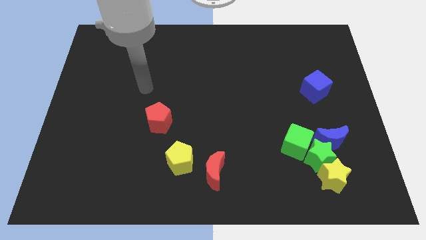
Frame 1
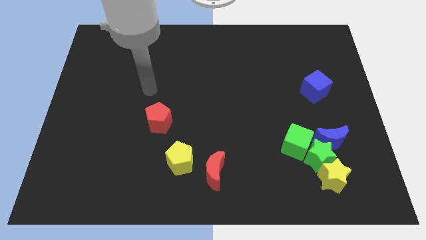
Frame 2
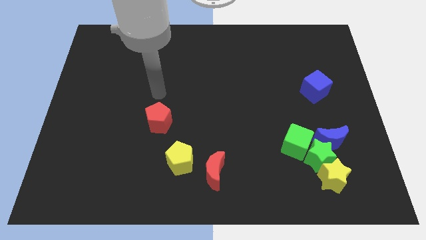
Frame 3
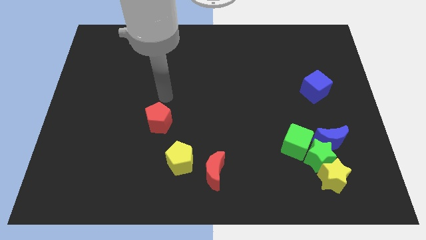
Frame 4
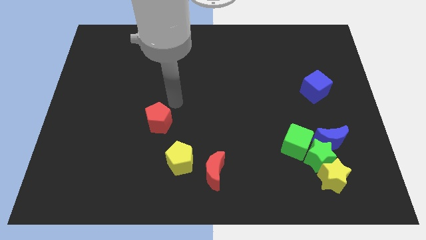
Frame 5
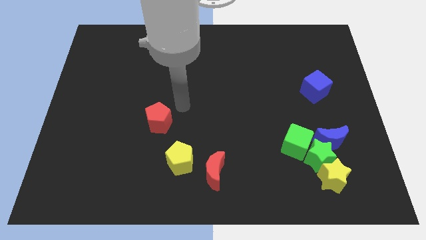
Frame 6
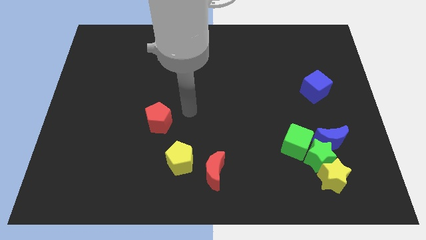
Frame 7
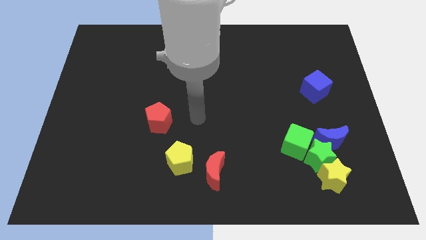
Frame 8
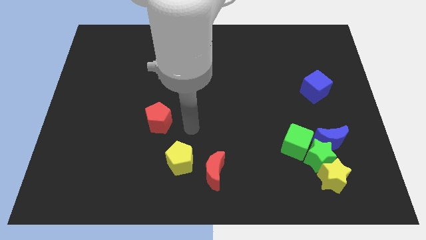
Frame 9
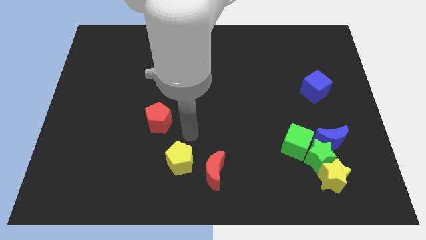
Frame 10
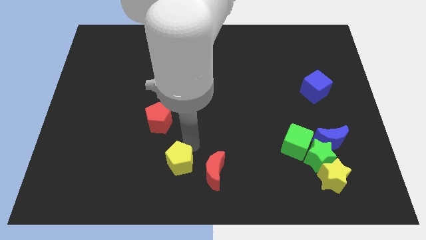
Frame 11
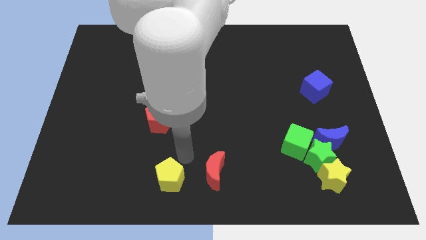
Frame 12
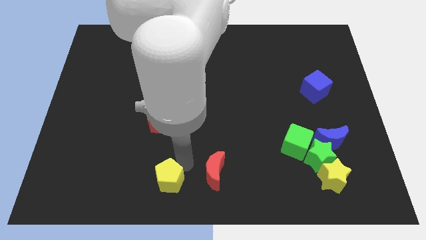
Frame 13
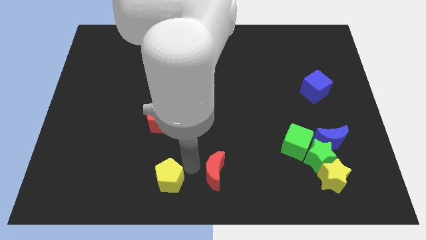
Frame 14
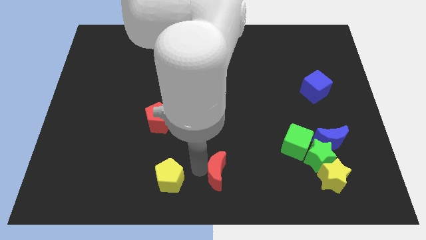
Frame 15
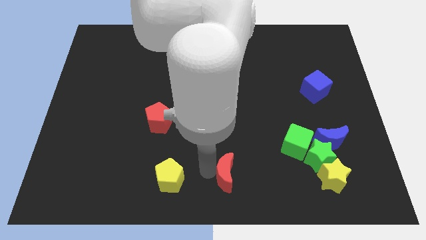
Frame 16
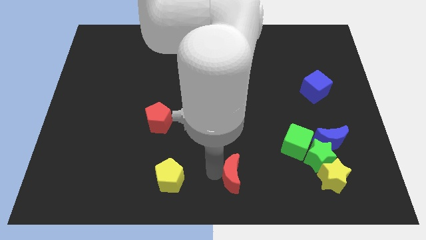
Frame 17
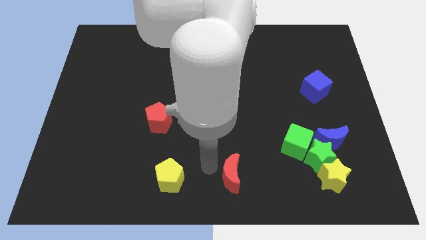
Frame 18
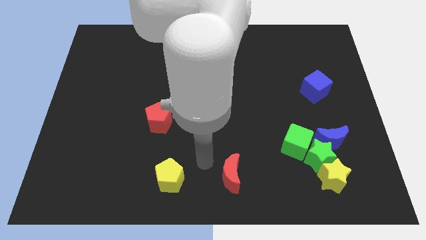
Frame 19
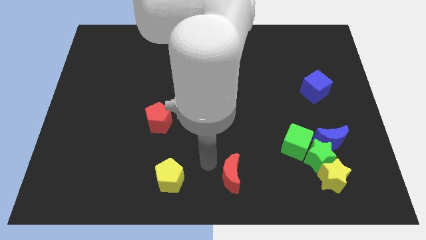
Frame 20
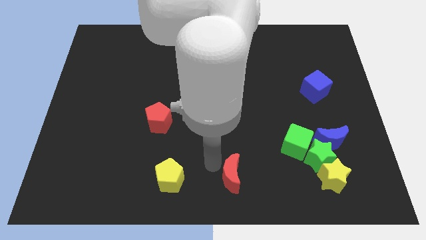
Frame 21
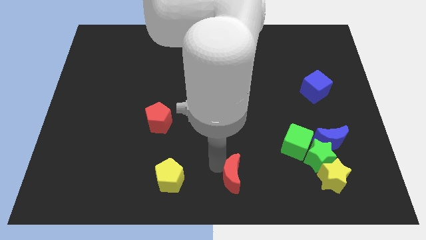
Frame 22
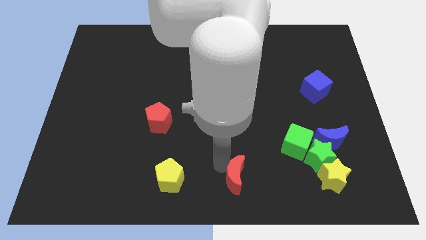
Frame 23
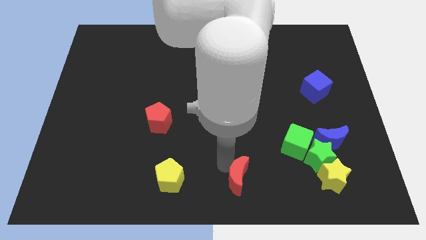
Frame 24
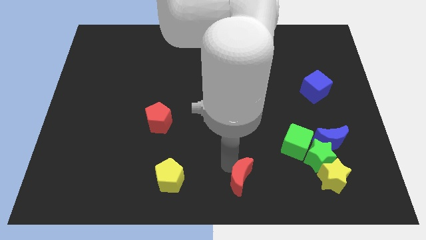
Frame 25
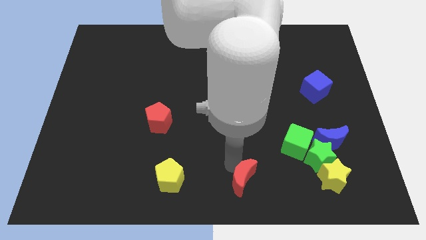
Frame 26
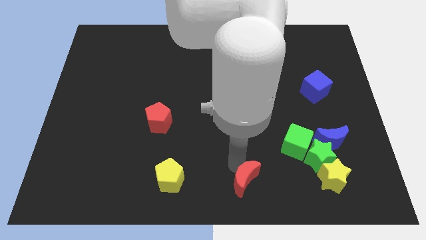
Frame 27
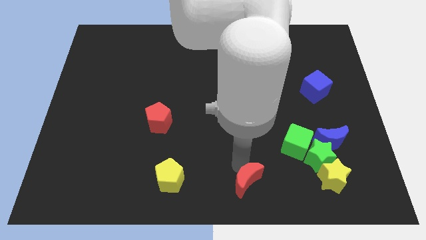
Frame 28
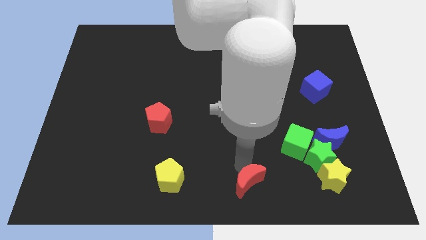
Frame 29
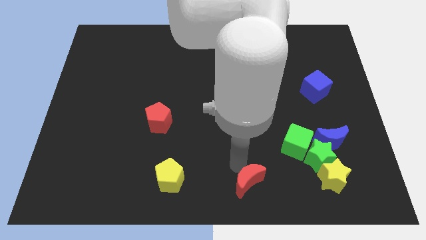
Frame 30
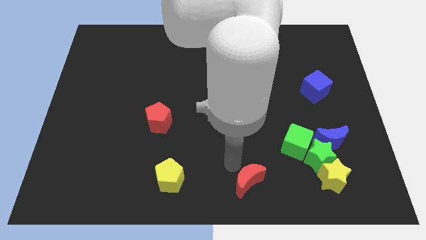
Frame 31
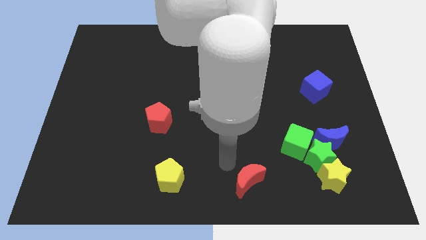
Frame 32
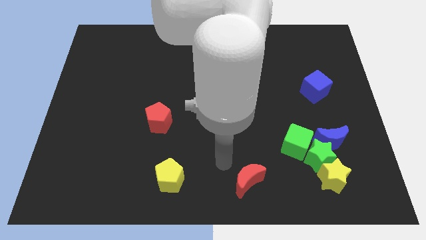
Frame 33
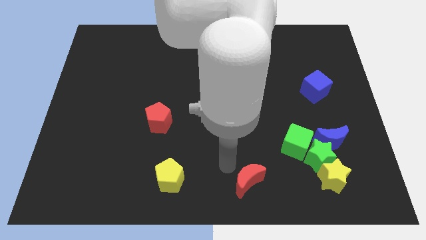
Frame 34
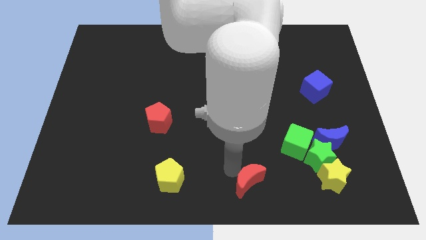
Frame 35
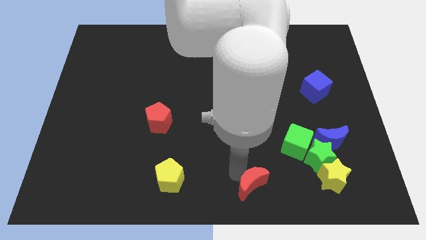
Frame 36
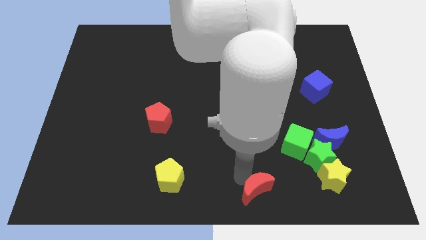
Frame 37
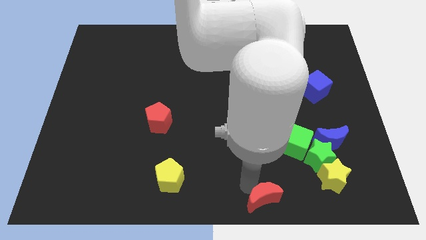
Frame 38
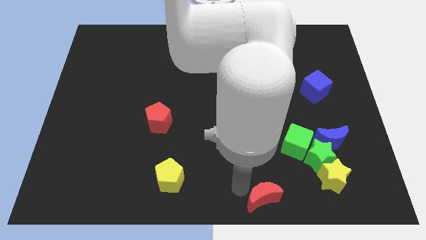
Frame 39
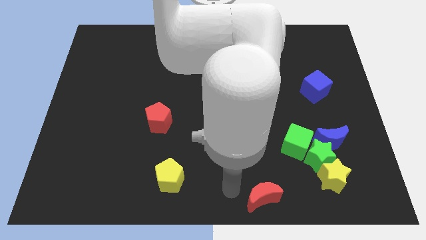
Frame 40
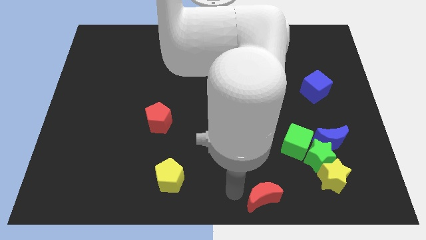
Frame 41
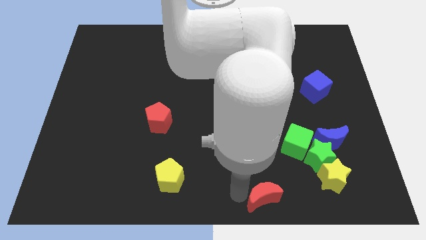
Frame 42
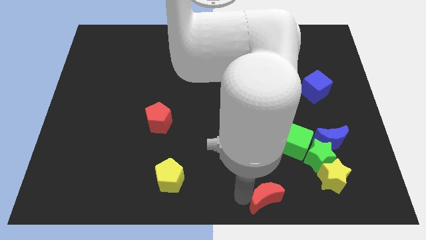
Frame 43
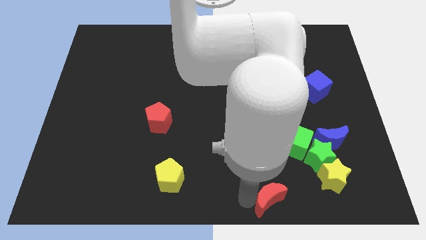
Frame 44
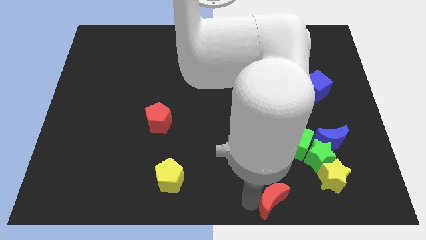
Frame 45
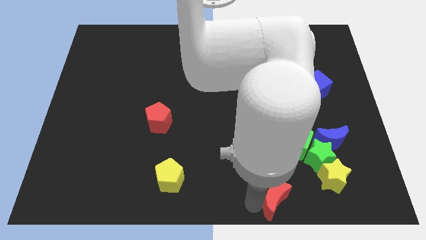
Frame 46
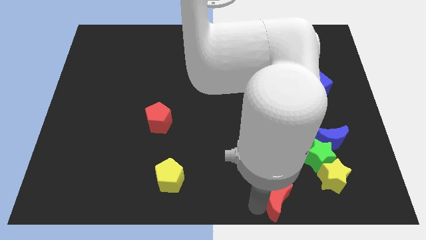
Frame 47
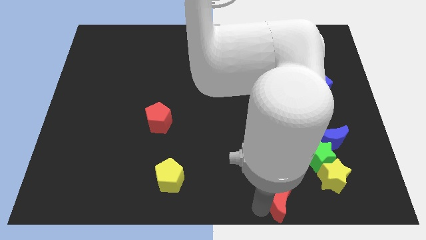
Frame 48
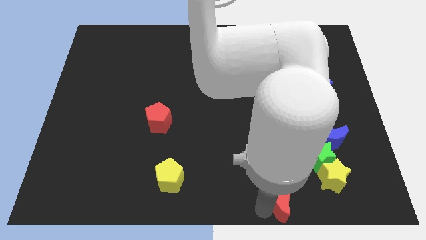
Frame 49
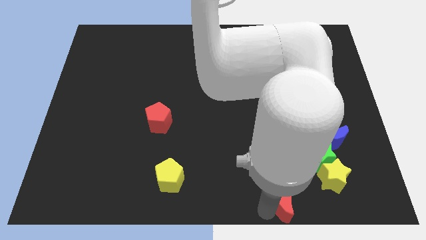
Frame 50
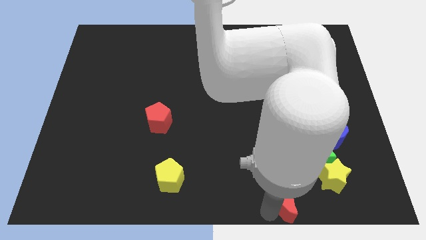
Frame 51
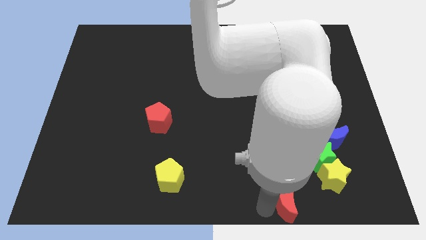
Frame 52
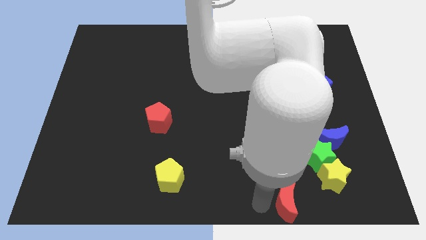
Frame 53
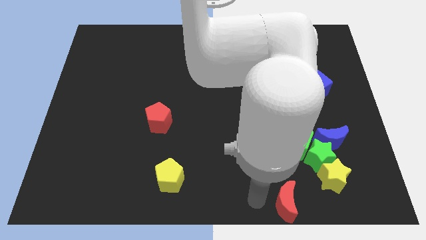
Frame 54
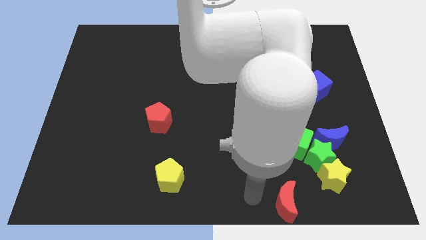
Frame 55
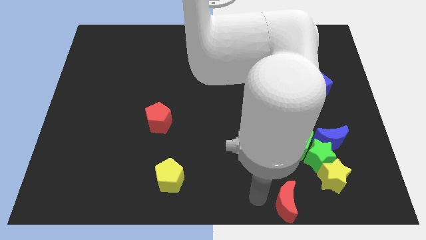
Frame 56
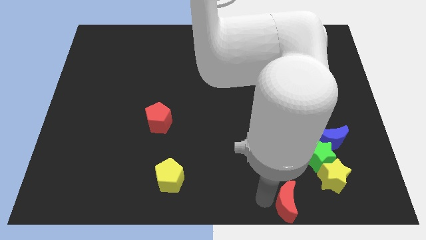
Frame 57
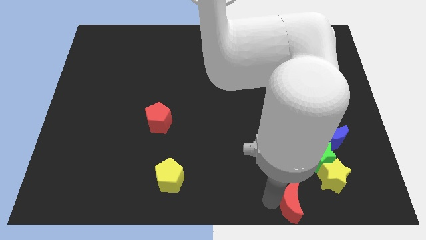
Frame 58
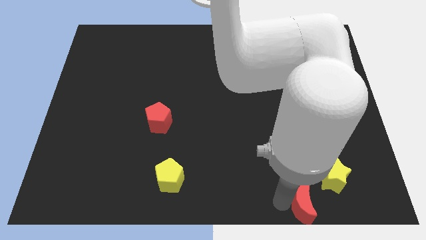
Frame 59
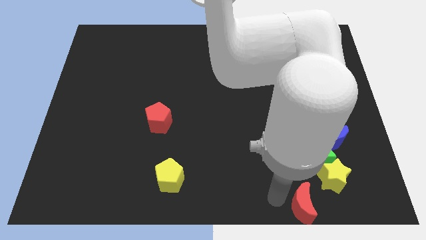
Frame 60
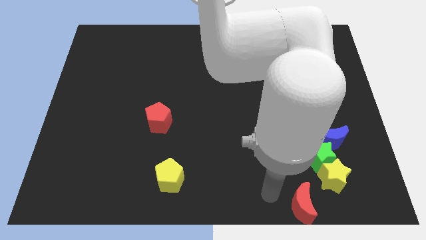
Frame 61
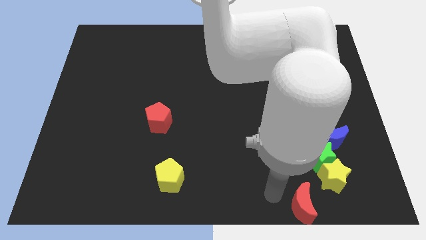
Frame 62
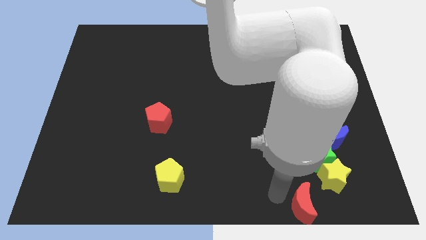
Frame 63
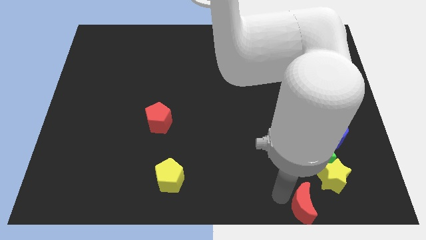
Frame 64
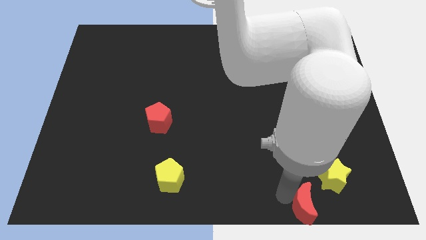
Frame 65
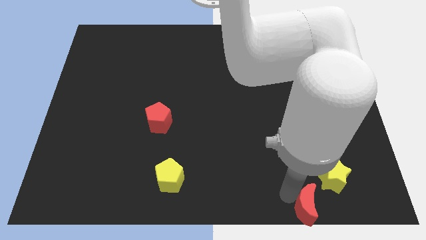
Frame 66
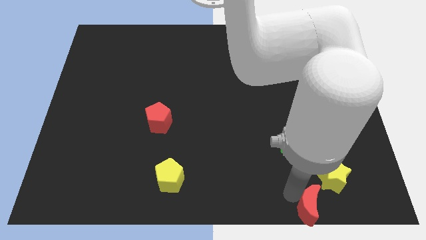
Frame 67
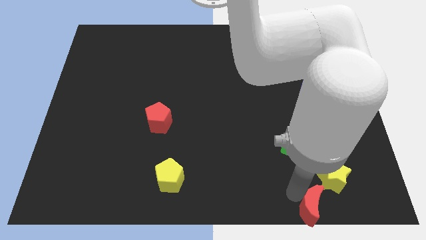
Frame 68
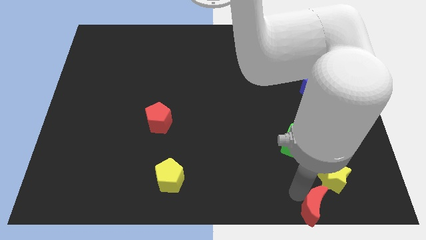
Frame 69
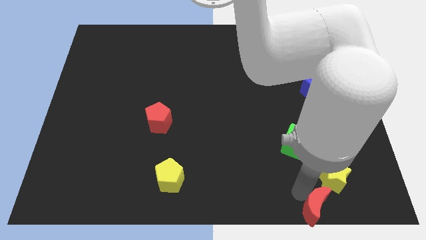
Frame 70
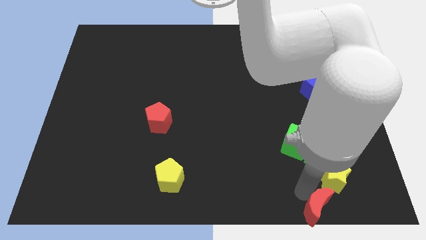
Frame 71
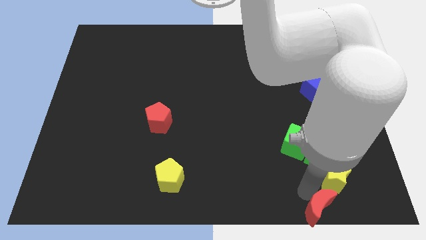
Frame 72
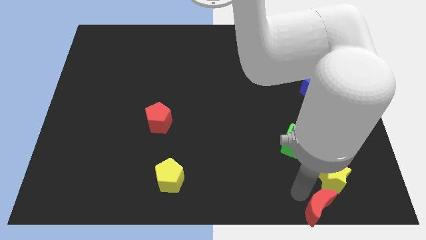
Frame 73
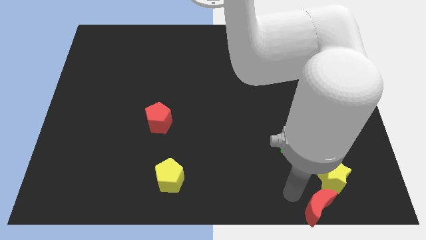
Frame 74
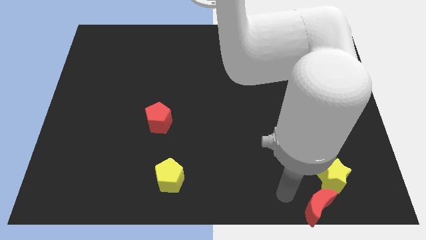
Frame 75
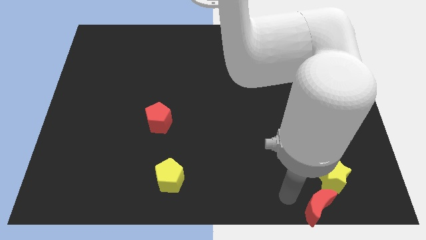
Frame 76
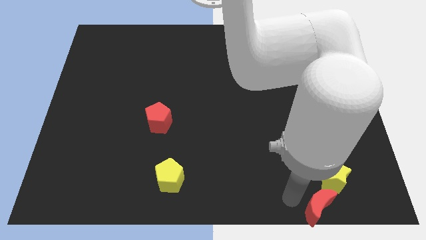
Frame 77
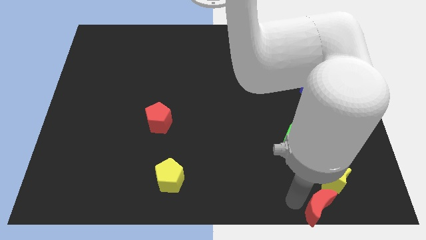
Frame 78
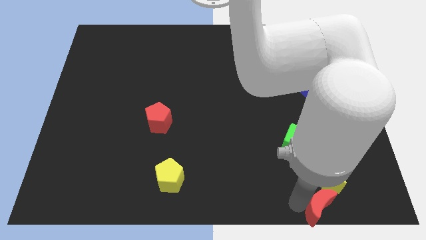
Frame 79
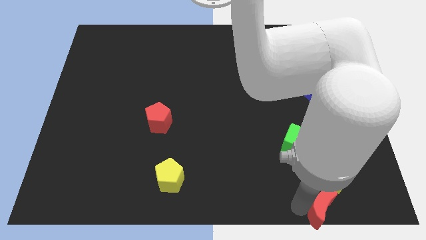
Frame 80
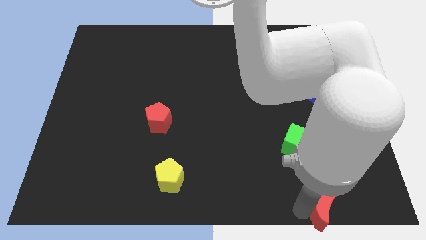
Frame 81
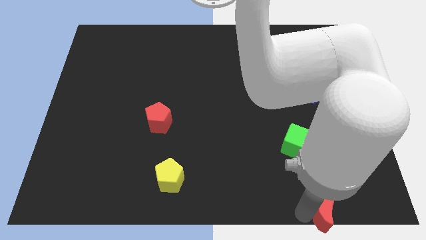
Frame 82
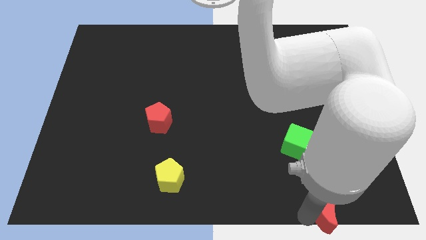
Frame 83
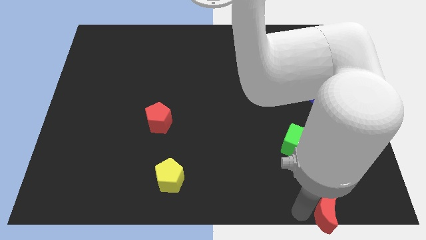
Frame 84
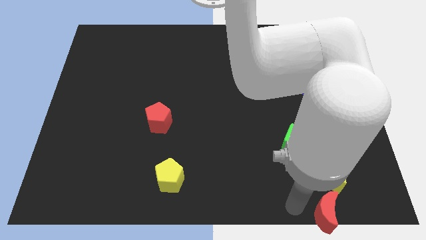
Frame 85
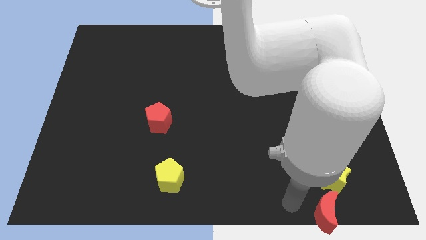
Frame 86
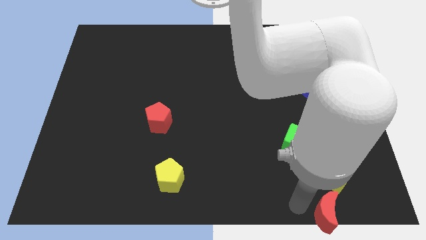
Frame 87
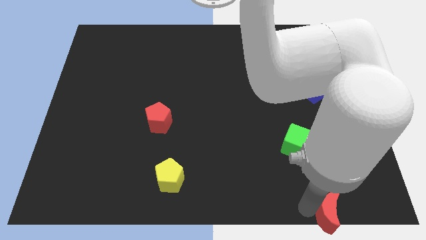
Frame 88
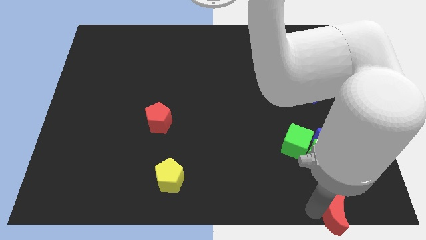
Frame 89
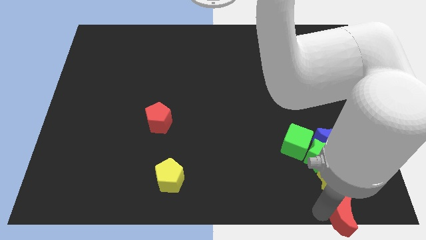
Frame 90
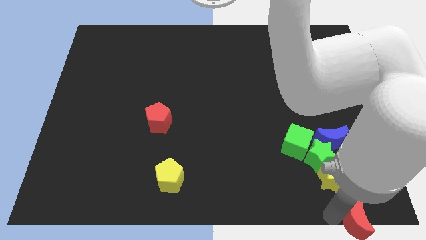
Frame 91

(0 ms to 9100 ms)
put the red moon to the bottom right corner
